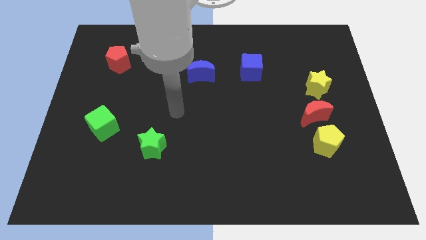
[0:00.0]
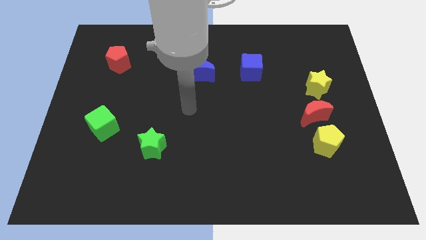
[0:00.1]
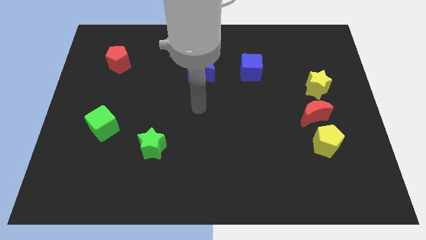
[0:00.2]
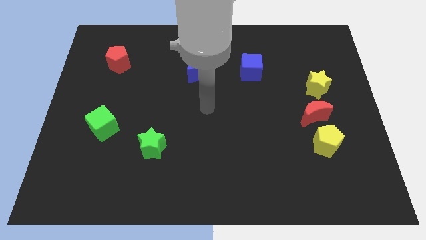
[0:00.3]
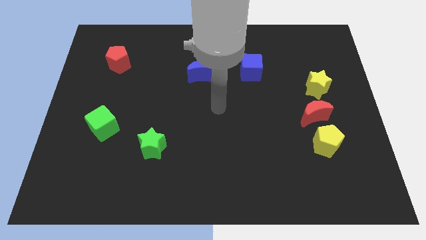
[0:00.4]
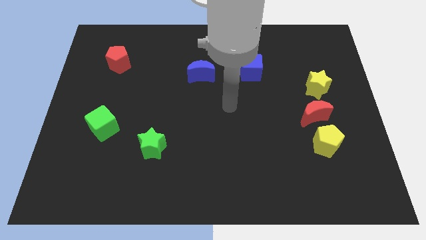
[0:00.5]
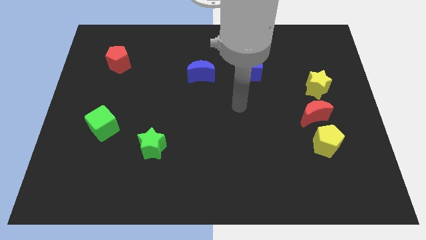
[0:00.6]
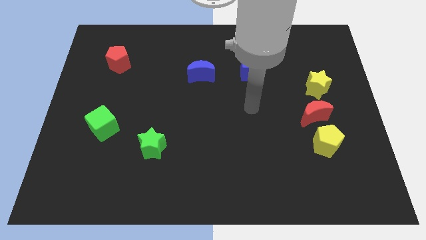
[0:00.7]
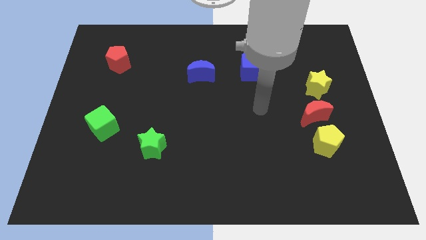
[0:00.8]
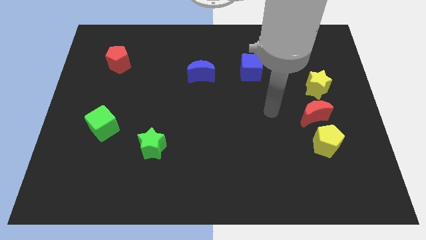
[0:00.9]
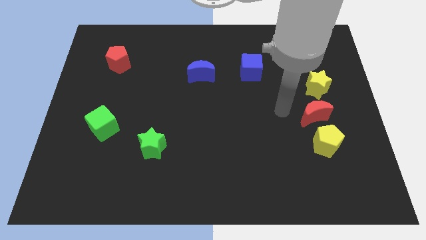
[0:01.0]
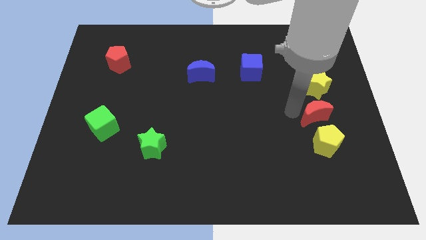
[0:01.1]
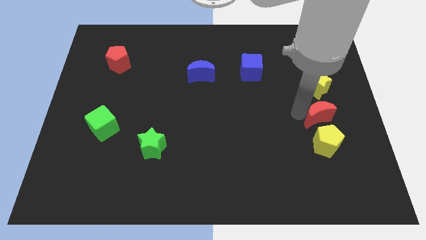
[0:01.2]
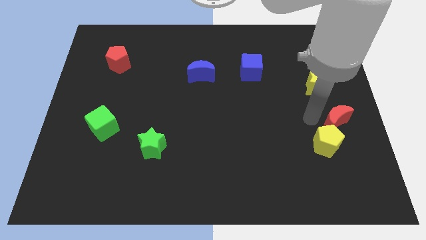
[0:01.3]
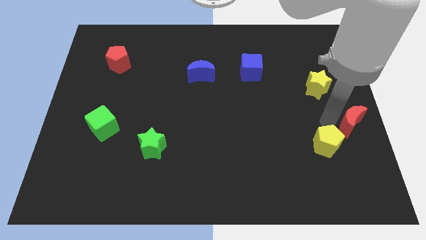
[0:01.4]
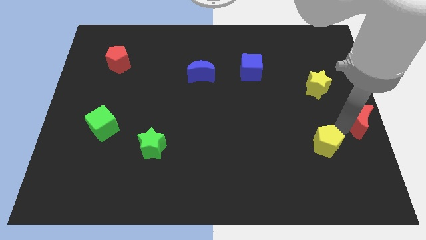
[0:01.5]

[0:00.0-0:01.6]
pull the yellow pentagon apart from the red moon

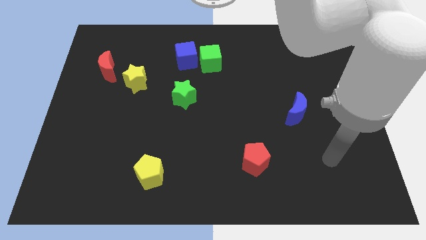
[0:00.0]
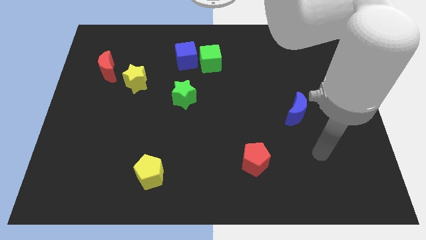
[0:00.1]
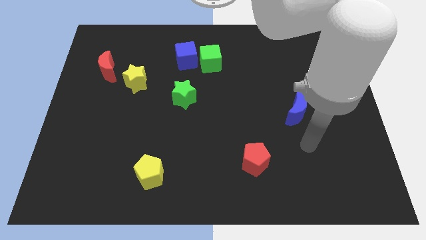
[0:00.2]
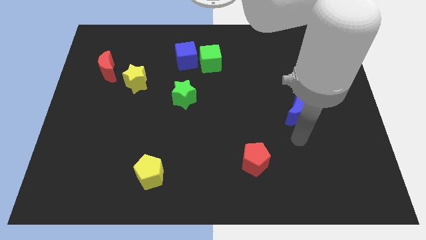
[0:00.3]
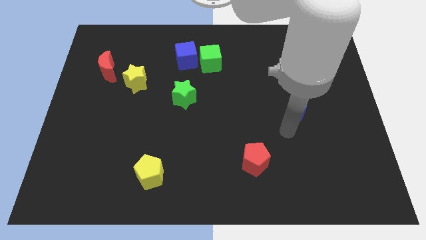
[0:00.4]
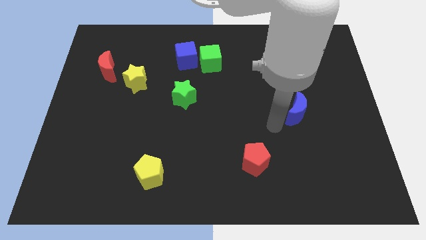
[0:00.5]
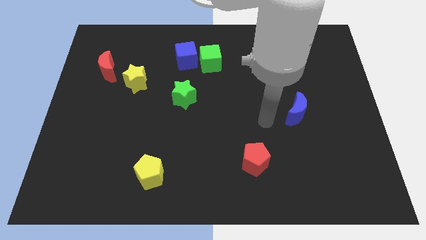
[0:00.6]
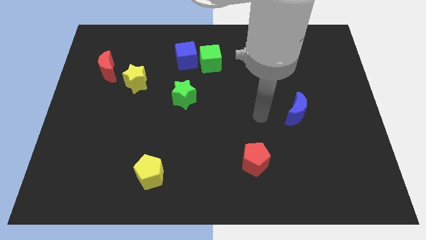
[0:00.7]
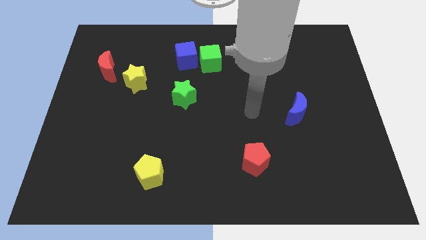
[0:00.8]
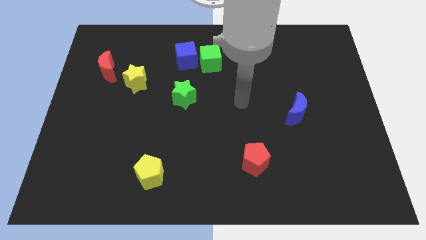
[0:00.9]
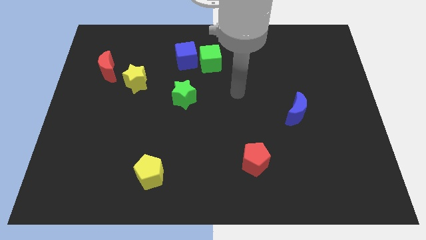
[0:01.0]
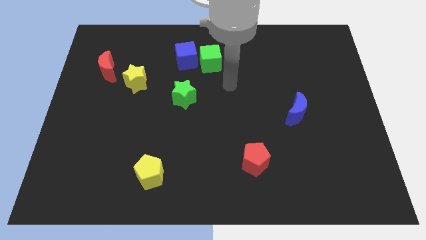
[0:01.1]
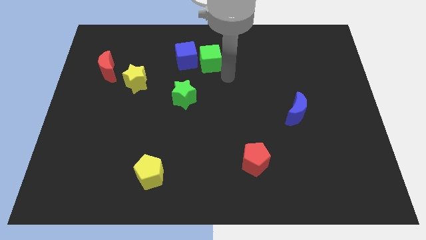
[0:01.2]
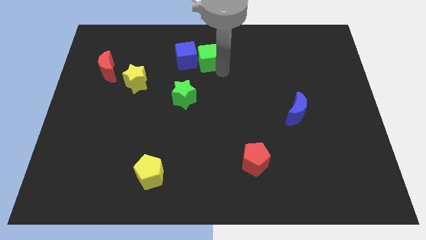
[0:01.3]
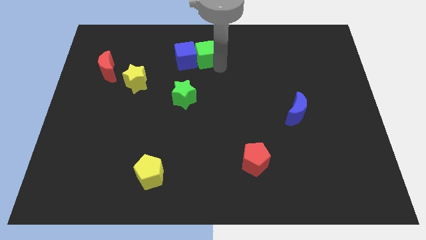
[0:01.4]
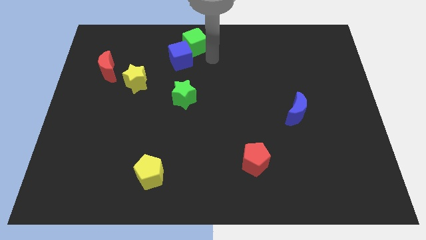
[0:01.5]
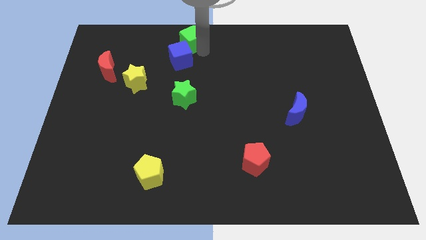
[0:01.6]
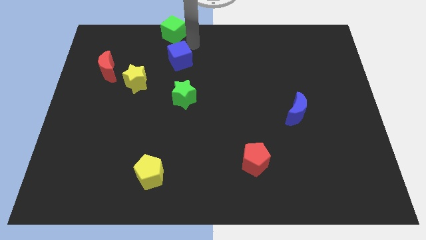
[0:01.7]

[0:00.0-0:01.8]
separate the blue cube from the green cube

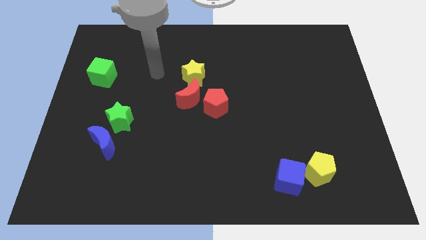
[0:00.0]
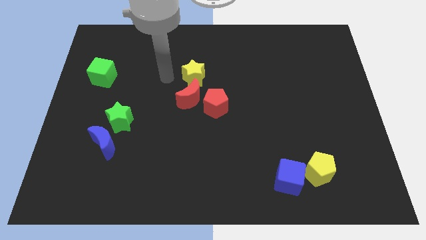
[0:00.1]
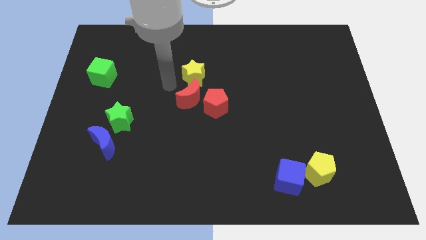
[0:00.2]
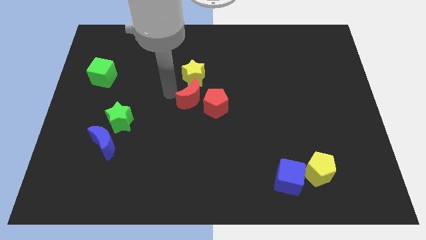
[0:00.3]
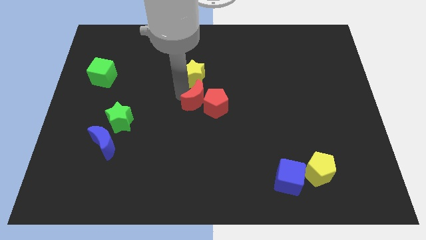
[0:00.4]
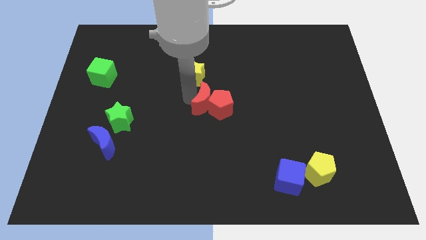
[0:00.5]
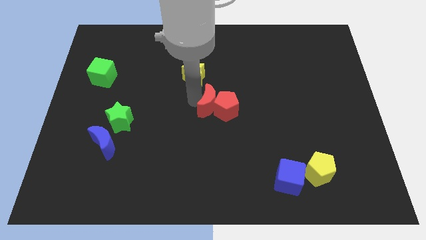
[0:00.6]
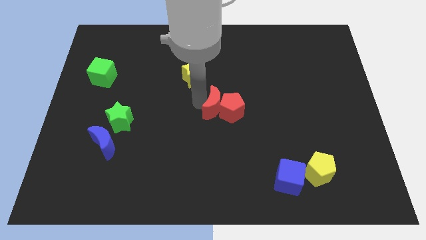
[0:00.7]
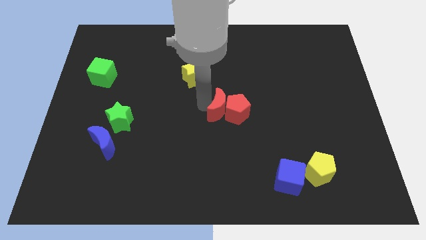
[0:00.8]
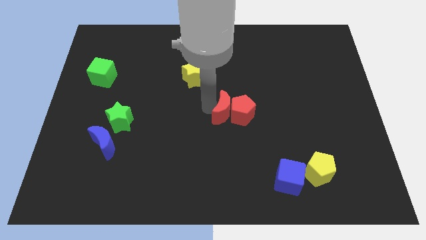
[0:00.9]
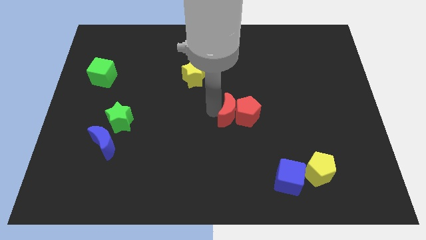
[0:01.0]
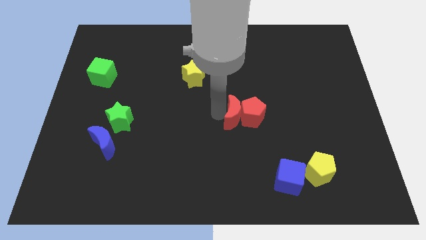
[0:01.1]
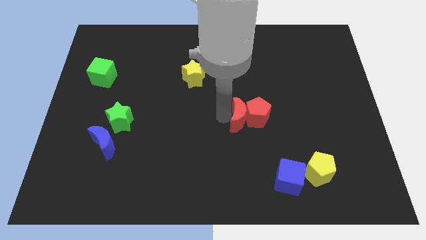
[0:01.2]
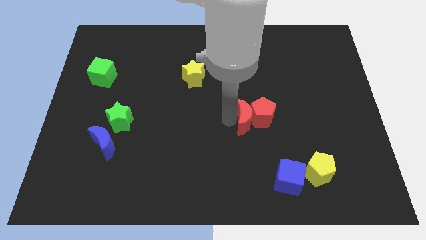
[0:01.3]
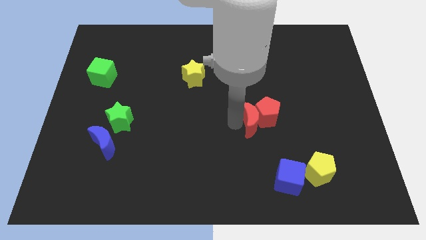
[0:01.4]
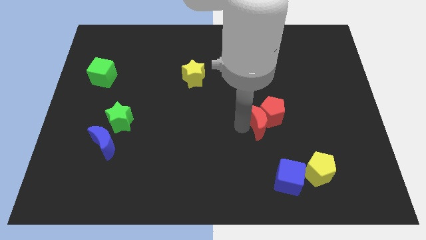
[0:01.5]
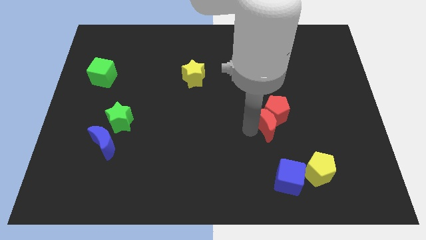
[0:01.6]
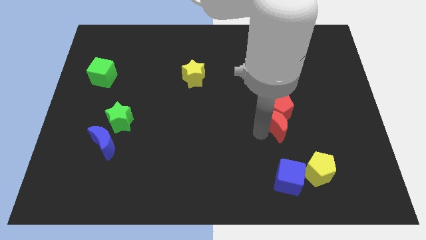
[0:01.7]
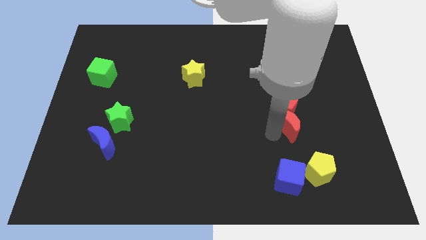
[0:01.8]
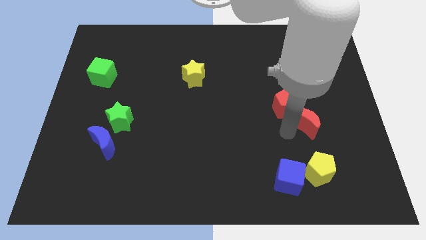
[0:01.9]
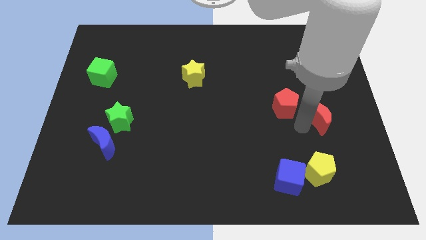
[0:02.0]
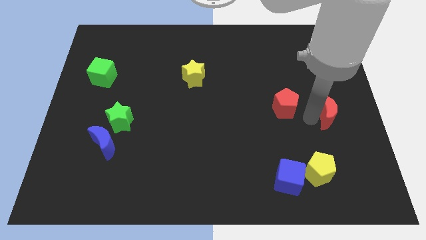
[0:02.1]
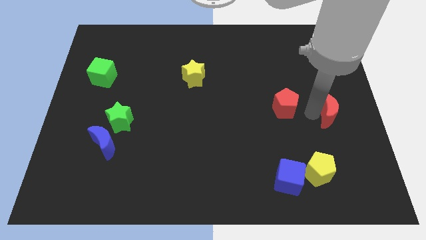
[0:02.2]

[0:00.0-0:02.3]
separate the red pentagon from the red moon

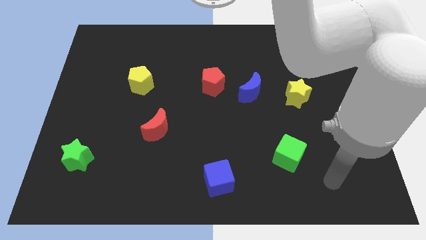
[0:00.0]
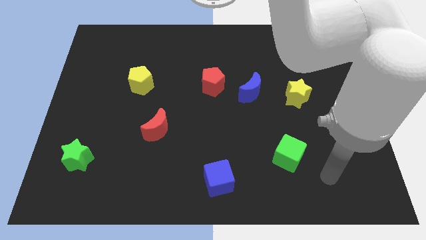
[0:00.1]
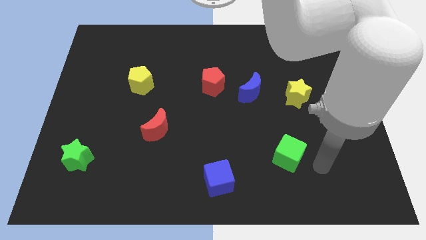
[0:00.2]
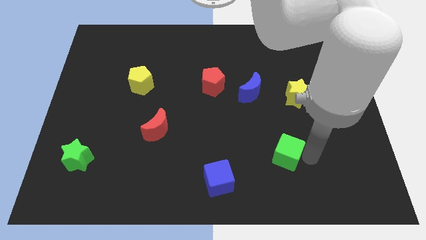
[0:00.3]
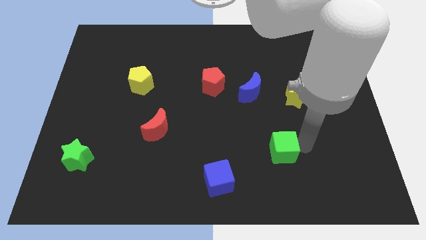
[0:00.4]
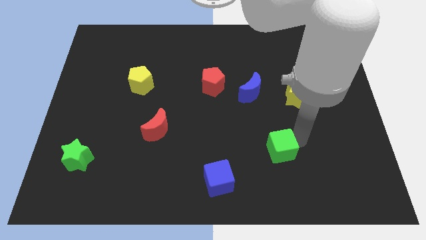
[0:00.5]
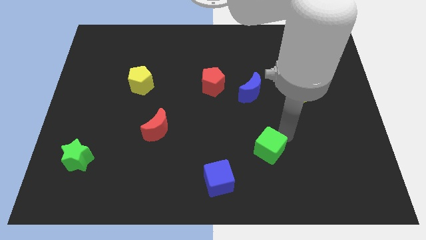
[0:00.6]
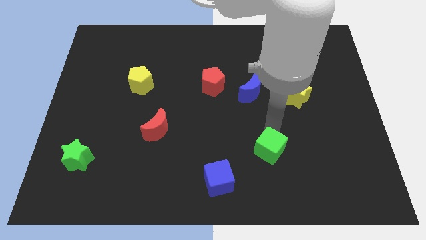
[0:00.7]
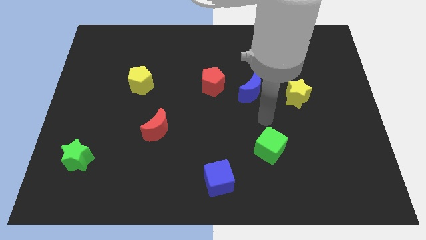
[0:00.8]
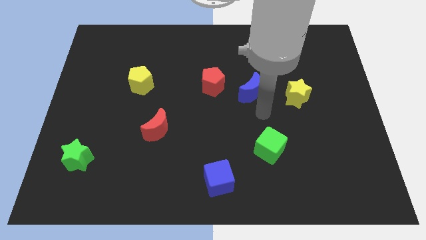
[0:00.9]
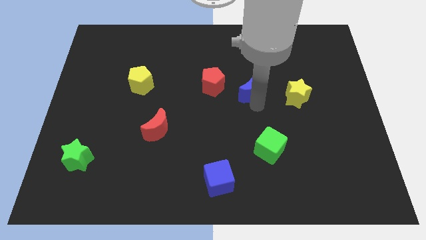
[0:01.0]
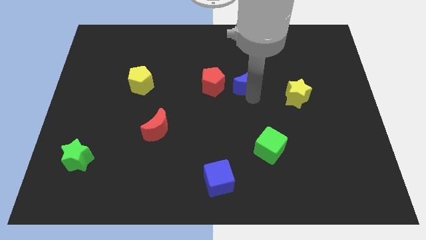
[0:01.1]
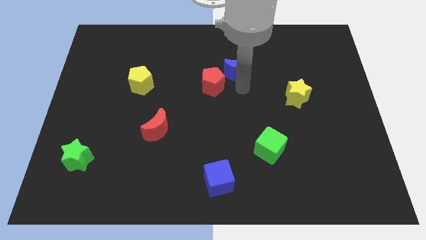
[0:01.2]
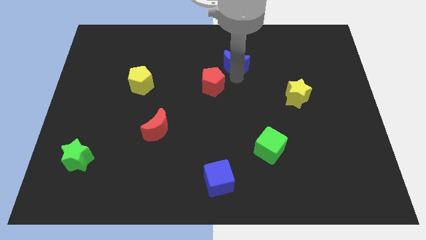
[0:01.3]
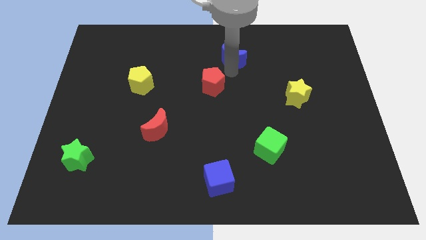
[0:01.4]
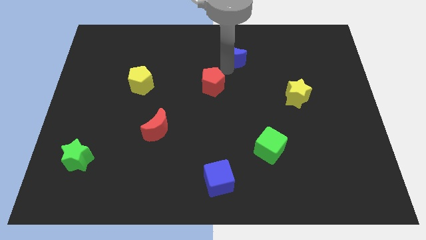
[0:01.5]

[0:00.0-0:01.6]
separate the red pentagon from the blue moon

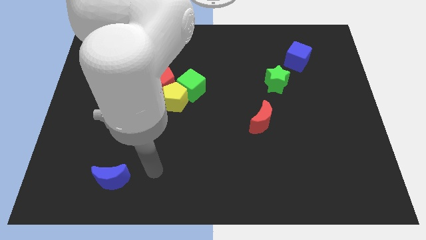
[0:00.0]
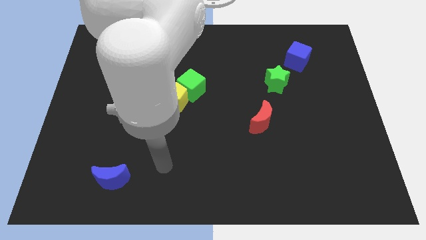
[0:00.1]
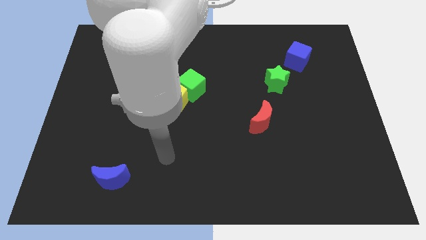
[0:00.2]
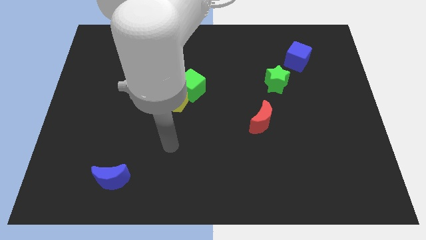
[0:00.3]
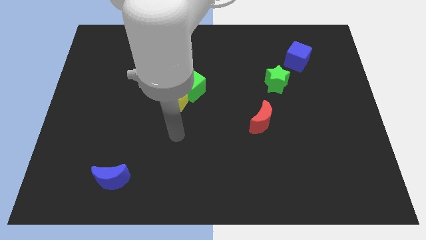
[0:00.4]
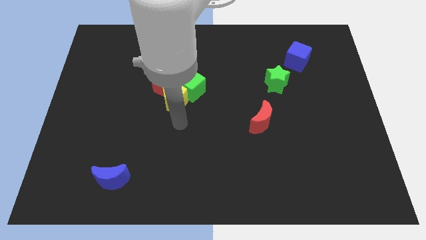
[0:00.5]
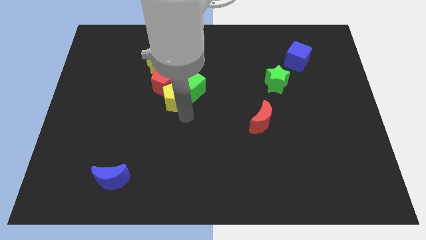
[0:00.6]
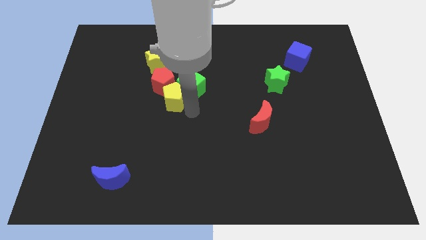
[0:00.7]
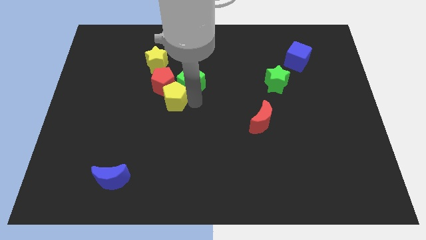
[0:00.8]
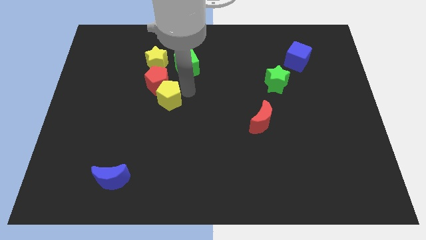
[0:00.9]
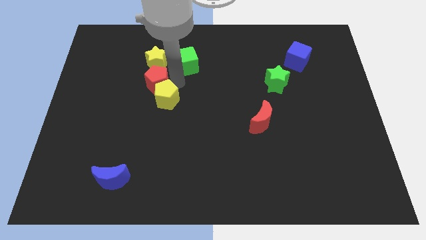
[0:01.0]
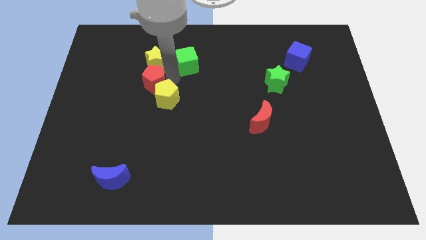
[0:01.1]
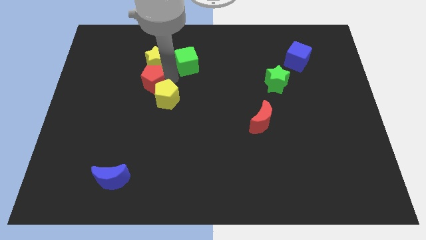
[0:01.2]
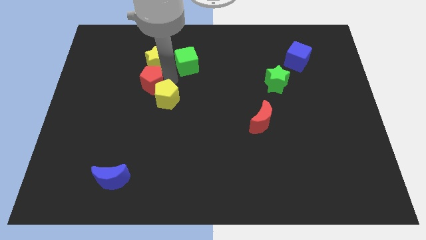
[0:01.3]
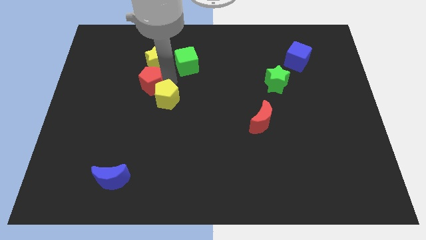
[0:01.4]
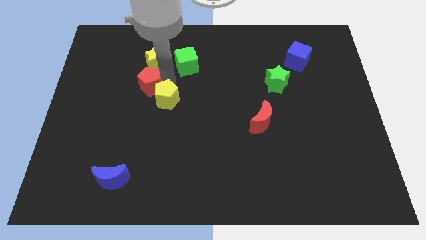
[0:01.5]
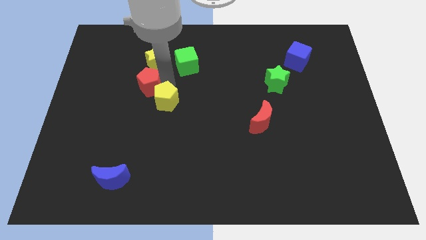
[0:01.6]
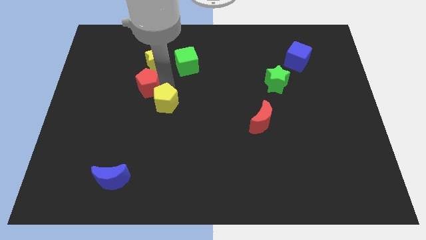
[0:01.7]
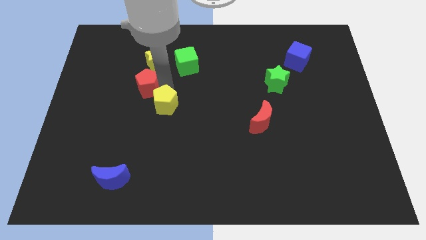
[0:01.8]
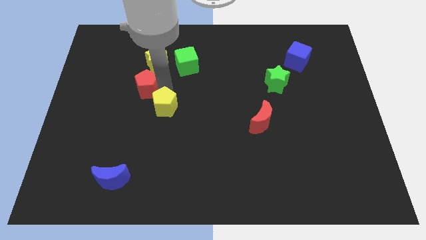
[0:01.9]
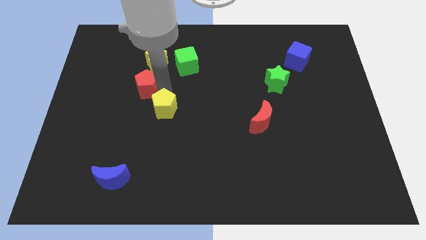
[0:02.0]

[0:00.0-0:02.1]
move the yellow pentagon away from the green cube and red pentagon
